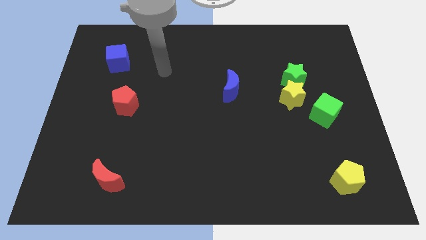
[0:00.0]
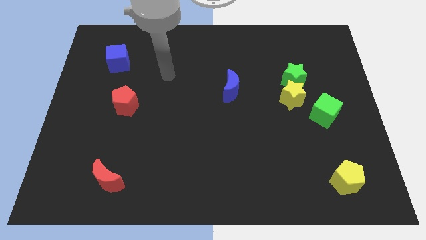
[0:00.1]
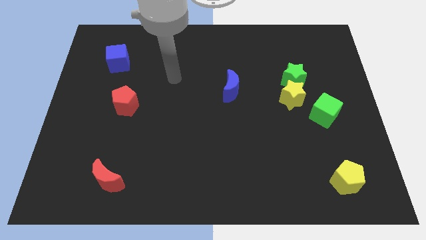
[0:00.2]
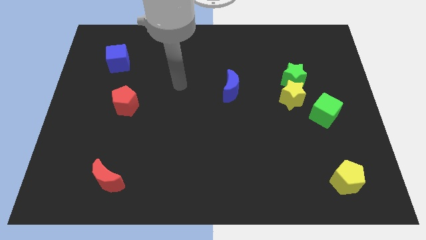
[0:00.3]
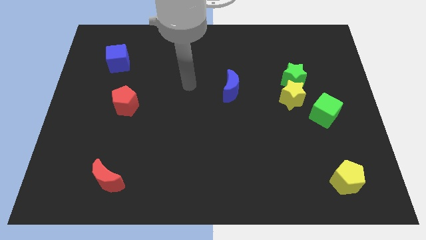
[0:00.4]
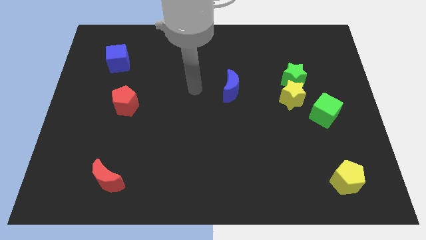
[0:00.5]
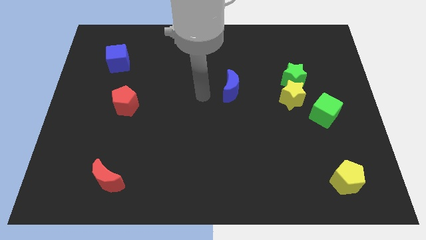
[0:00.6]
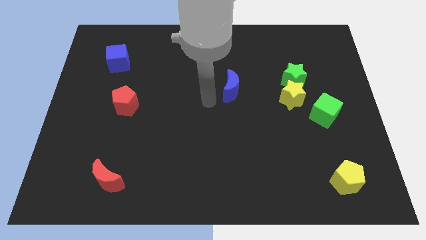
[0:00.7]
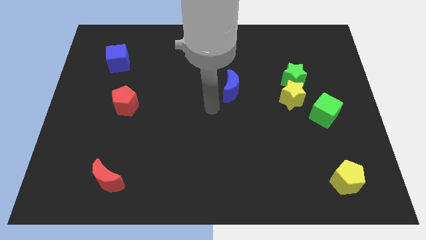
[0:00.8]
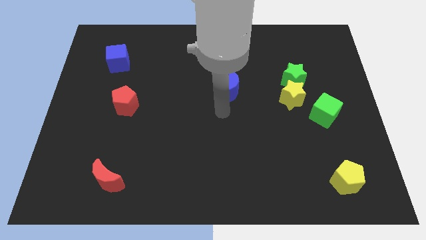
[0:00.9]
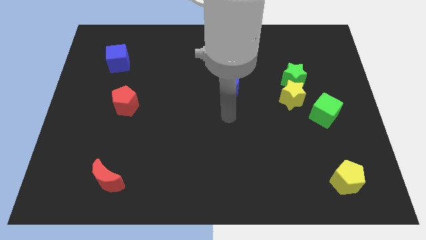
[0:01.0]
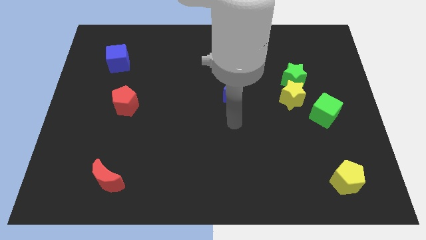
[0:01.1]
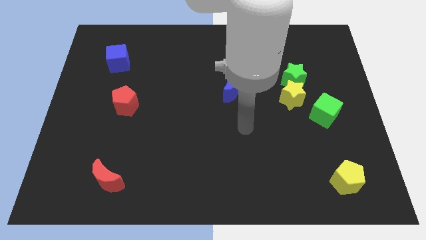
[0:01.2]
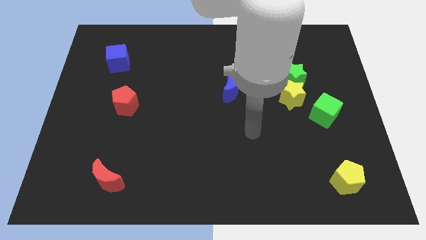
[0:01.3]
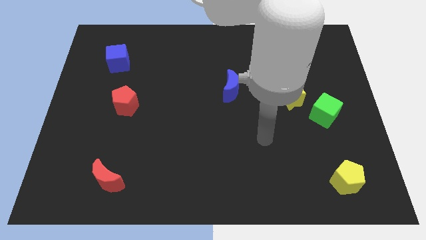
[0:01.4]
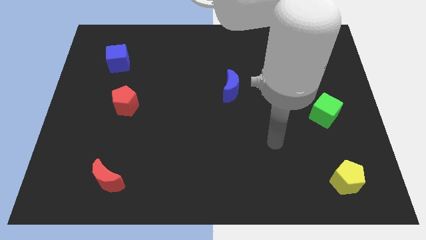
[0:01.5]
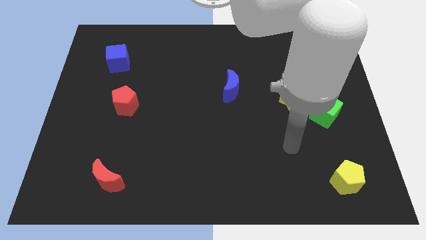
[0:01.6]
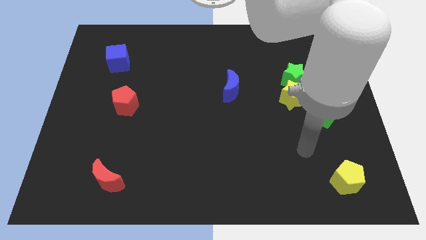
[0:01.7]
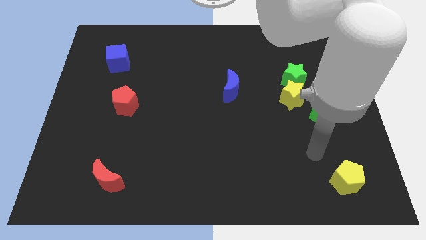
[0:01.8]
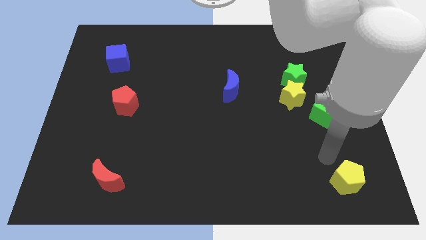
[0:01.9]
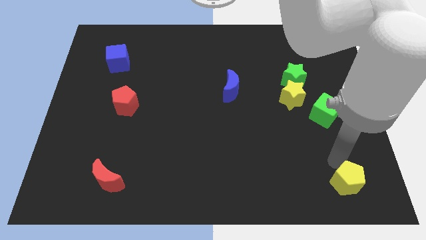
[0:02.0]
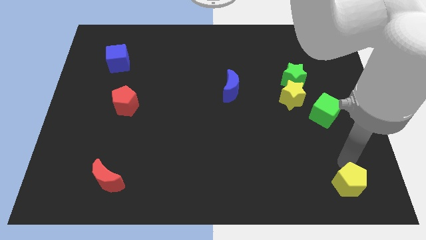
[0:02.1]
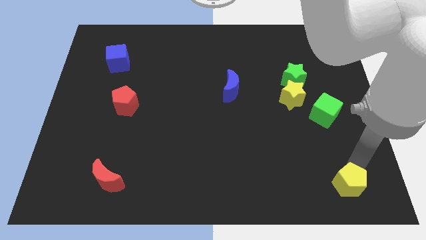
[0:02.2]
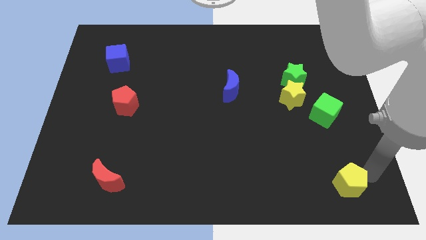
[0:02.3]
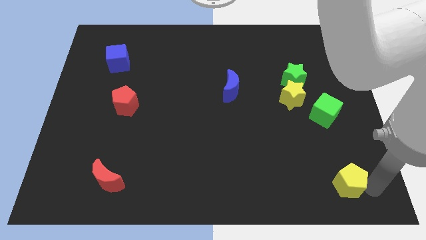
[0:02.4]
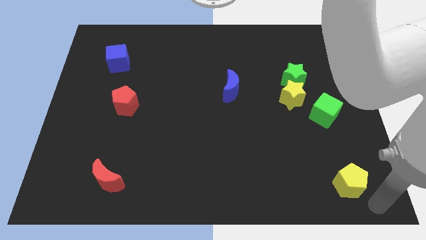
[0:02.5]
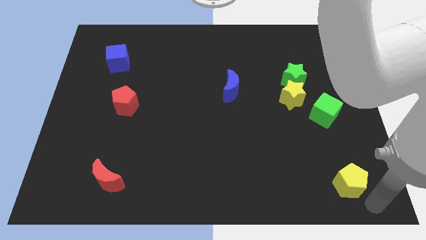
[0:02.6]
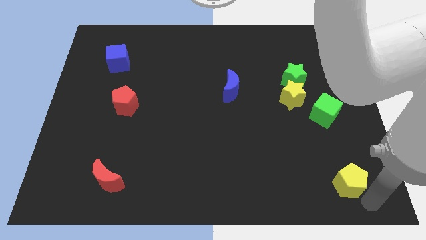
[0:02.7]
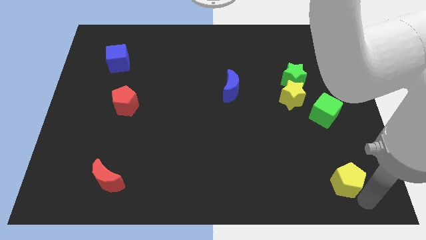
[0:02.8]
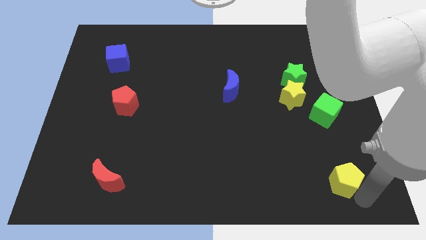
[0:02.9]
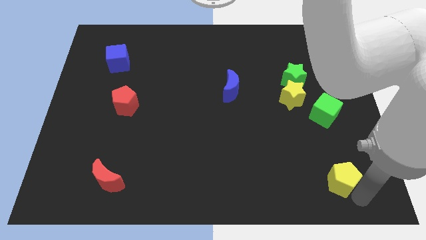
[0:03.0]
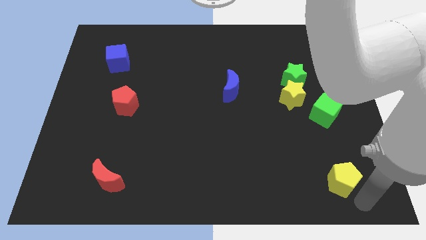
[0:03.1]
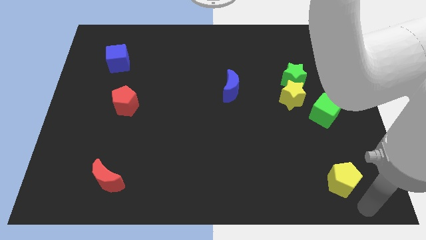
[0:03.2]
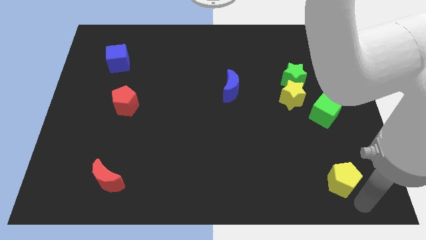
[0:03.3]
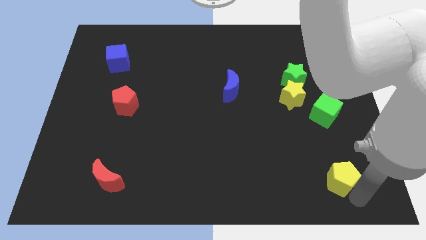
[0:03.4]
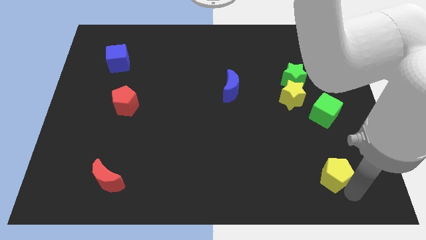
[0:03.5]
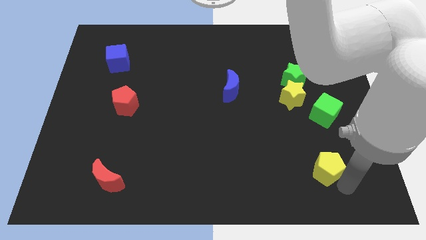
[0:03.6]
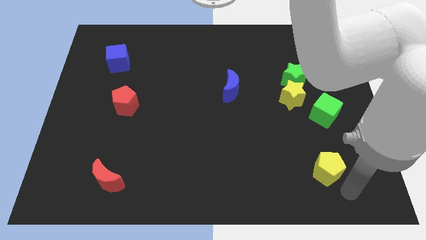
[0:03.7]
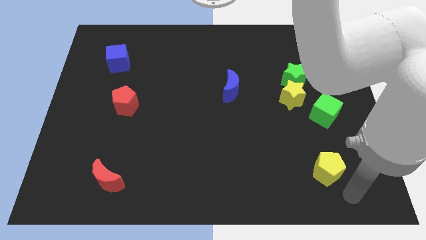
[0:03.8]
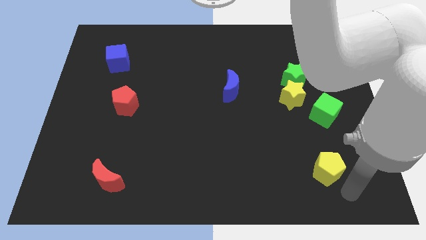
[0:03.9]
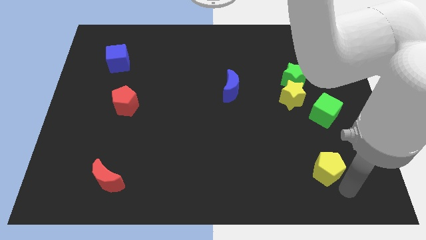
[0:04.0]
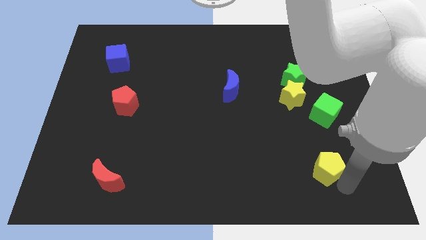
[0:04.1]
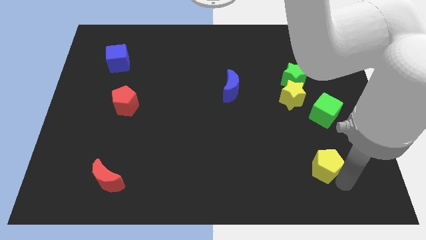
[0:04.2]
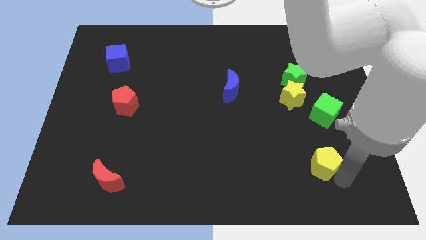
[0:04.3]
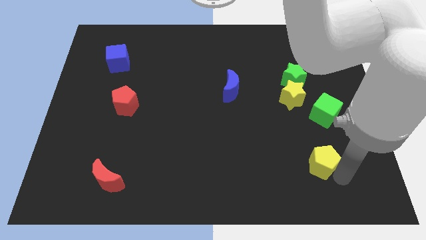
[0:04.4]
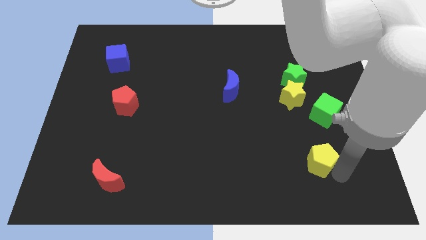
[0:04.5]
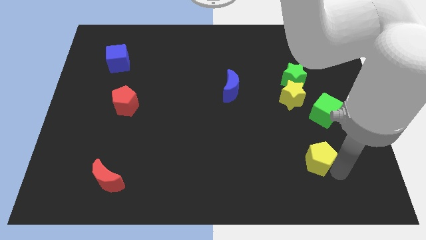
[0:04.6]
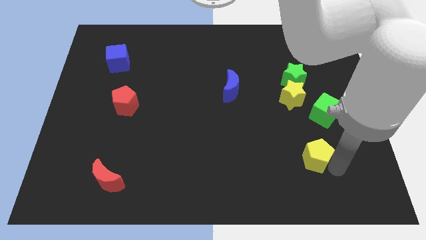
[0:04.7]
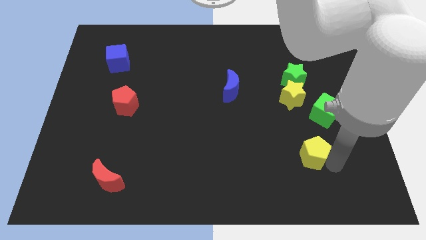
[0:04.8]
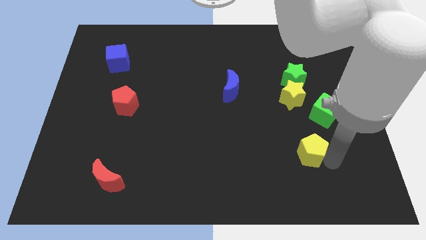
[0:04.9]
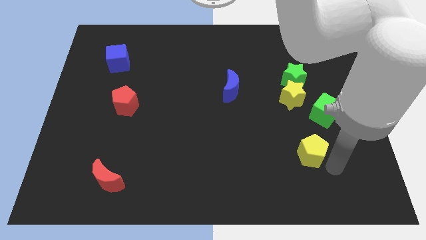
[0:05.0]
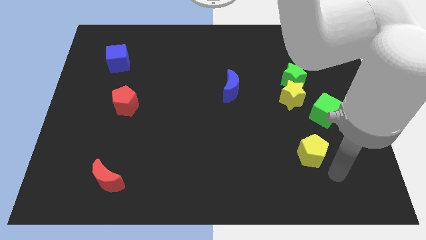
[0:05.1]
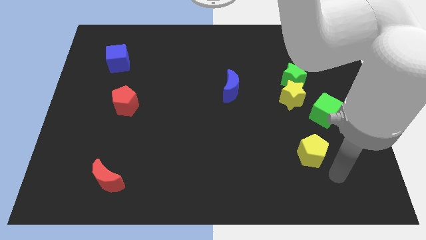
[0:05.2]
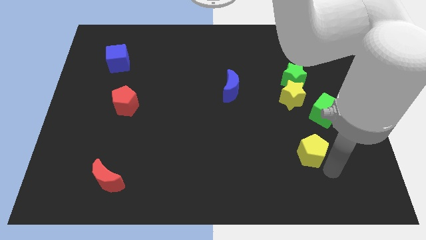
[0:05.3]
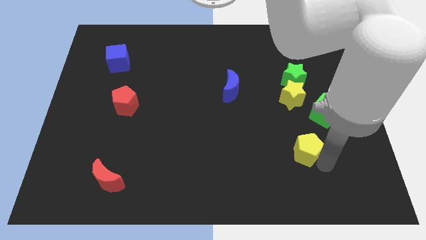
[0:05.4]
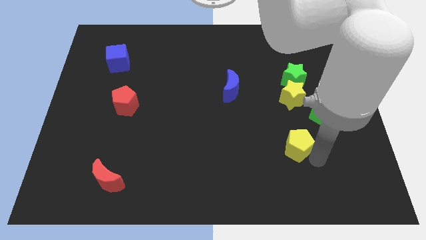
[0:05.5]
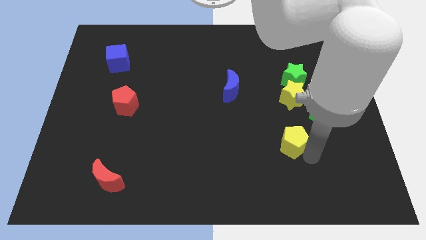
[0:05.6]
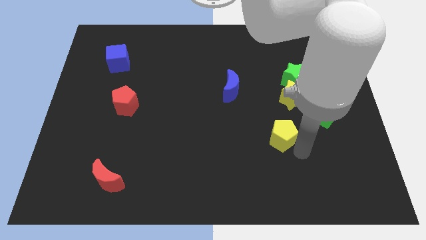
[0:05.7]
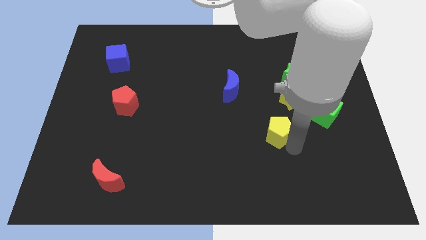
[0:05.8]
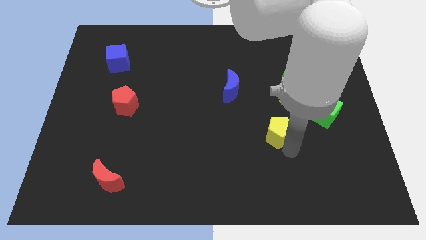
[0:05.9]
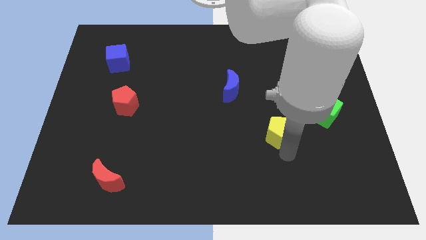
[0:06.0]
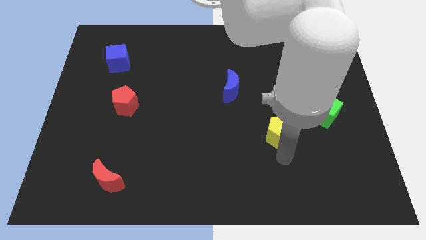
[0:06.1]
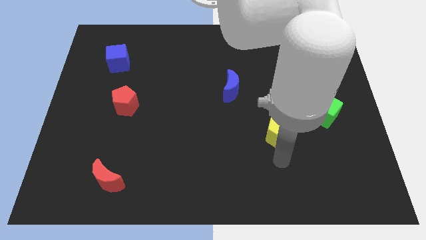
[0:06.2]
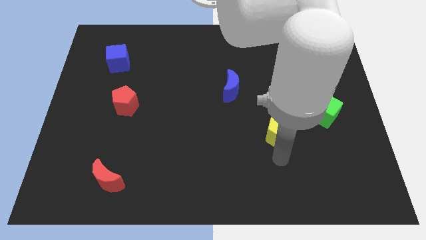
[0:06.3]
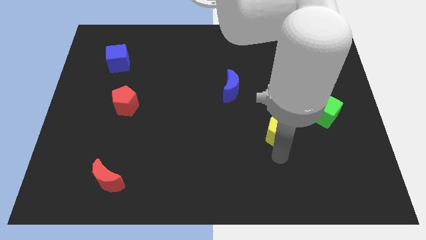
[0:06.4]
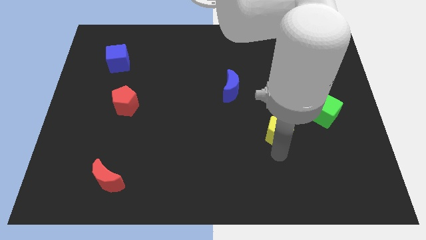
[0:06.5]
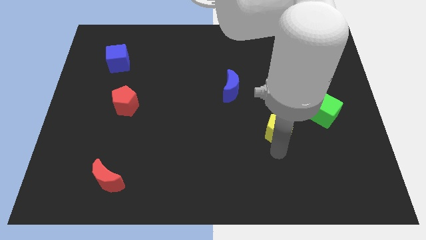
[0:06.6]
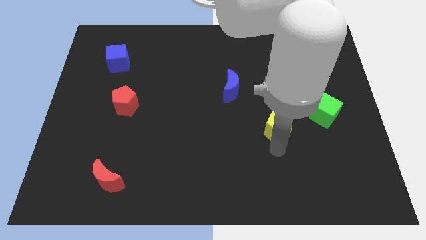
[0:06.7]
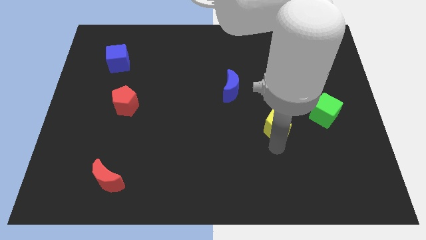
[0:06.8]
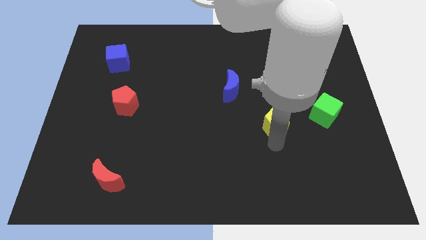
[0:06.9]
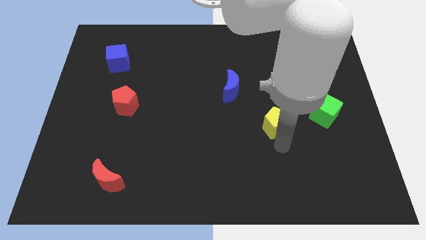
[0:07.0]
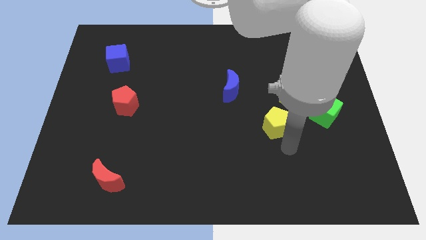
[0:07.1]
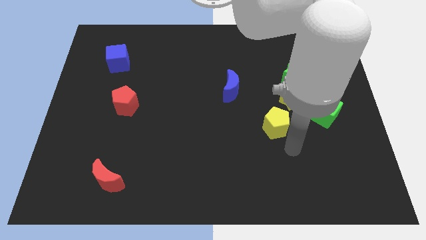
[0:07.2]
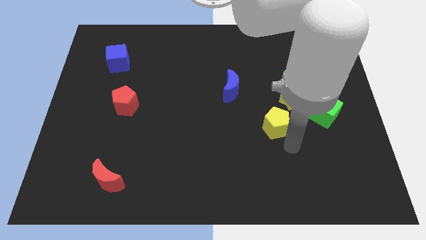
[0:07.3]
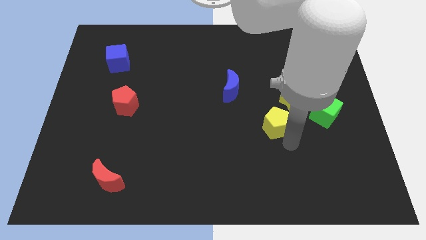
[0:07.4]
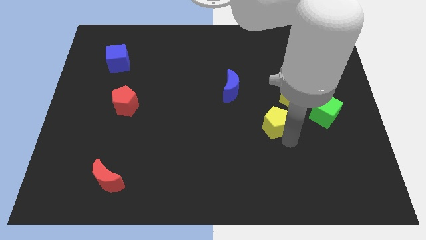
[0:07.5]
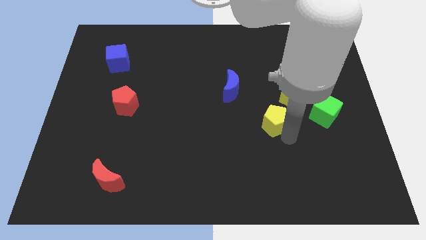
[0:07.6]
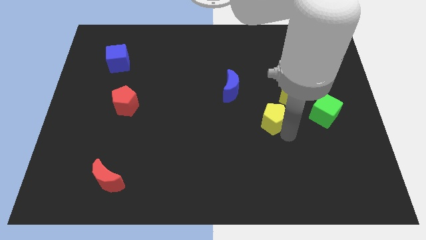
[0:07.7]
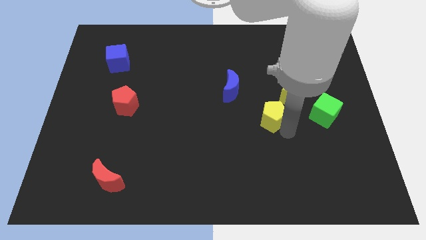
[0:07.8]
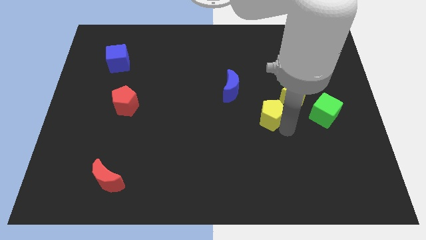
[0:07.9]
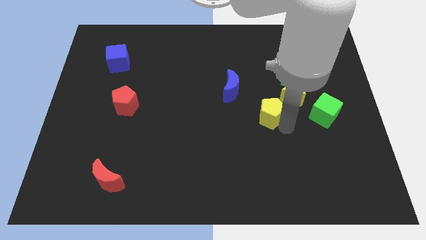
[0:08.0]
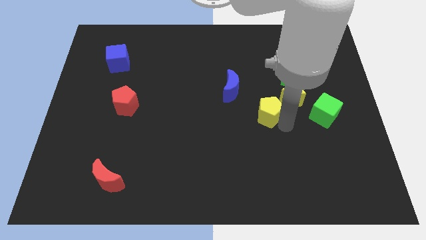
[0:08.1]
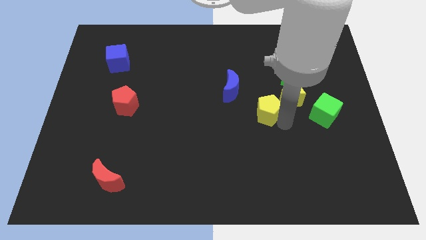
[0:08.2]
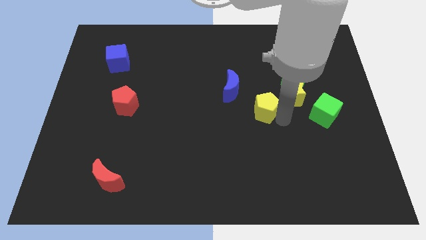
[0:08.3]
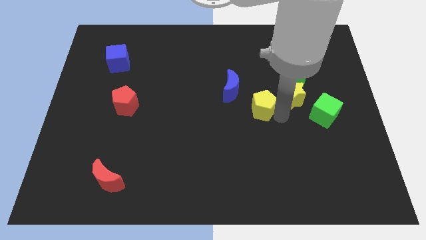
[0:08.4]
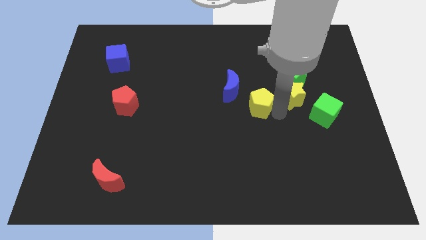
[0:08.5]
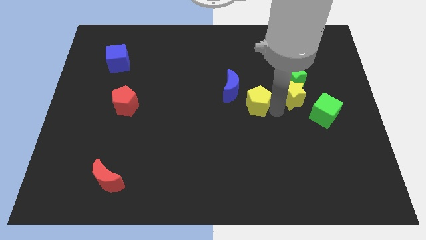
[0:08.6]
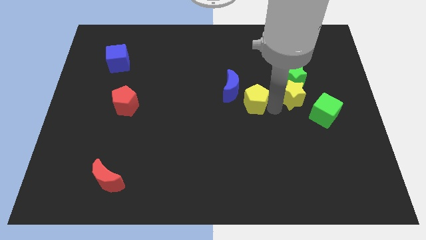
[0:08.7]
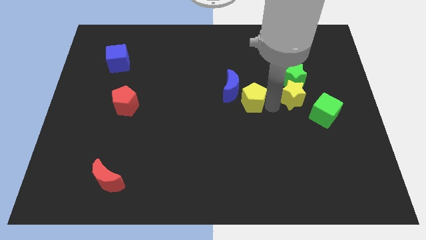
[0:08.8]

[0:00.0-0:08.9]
move the yellow pentagon towards the blue moon
